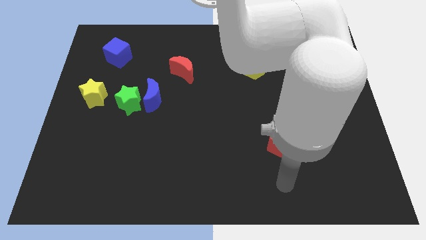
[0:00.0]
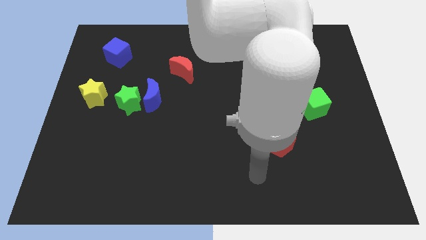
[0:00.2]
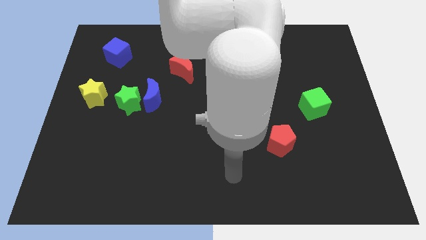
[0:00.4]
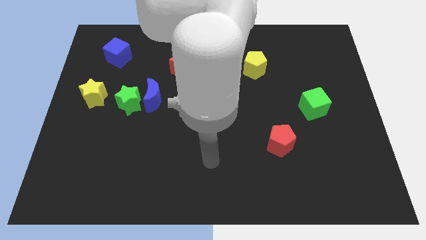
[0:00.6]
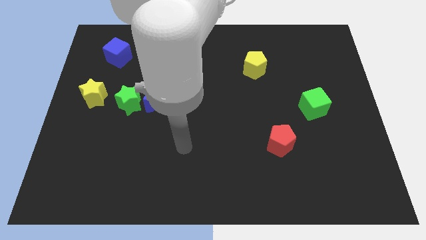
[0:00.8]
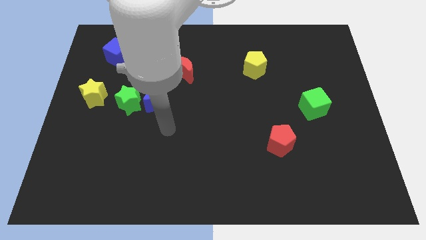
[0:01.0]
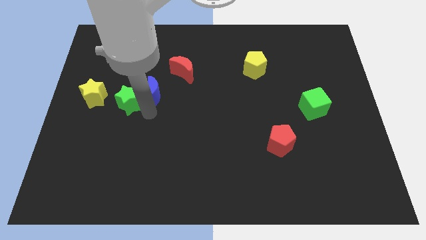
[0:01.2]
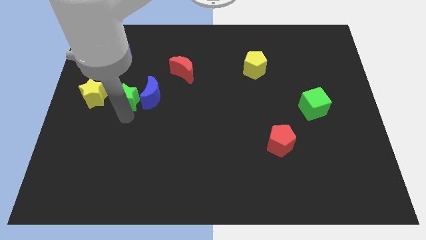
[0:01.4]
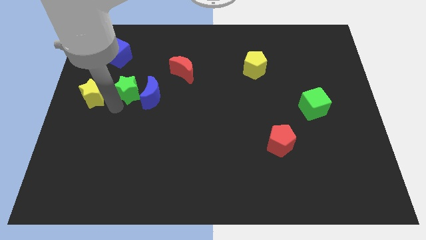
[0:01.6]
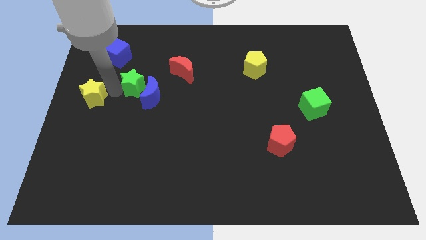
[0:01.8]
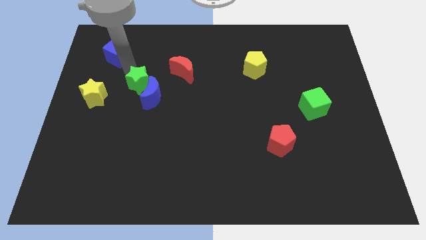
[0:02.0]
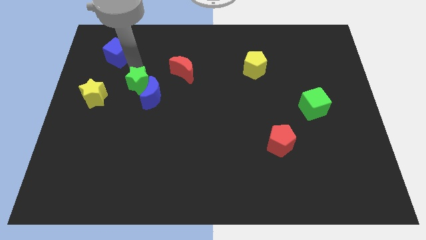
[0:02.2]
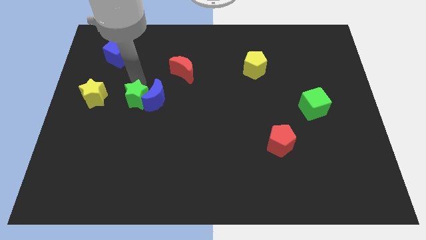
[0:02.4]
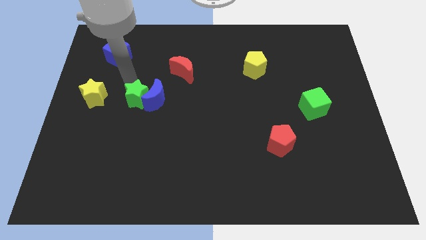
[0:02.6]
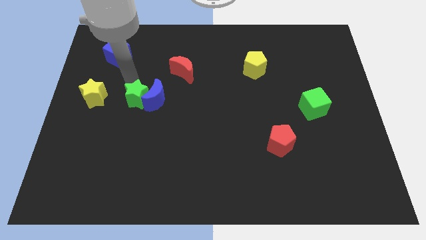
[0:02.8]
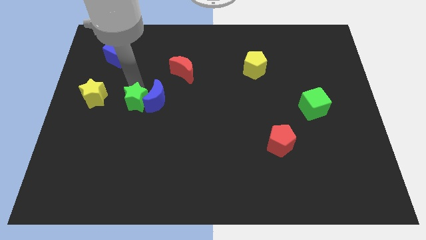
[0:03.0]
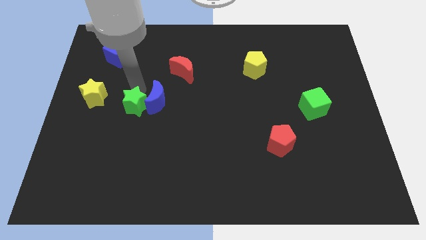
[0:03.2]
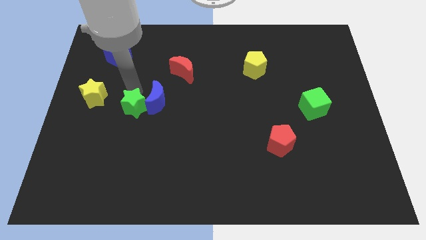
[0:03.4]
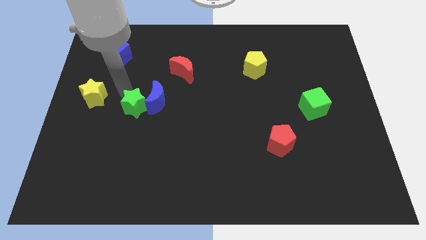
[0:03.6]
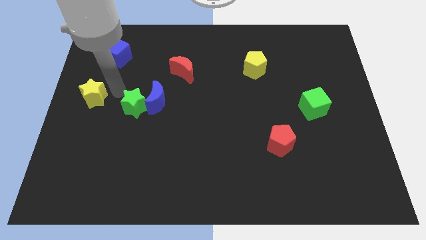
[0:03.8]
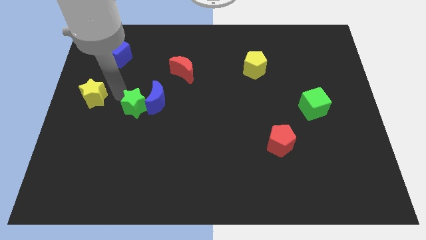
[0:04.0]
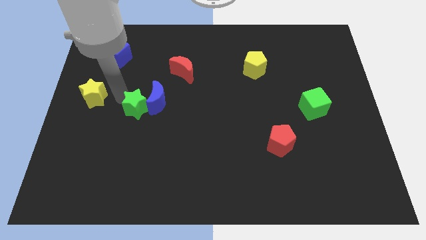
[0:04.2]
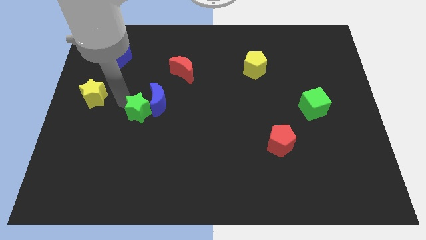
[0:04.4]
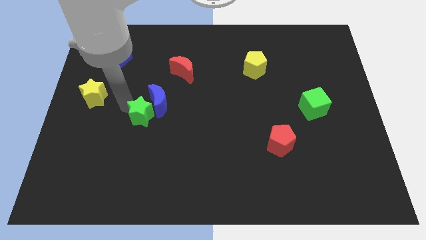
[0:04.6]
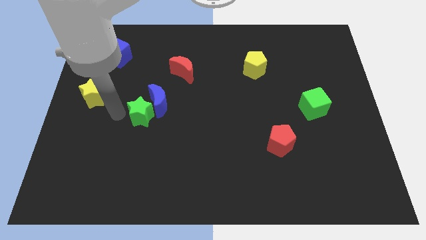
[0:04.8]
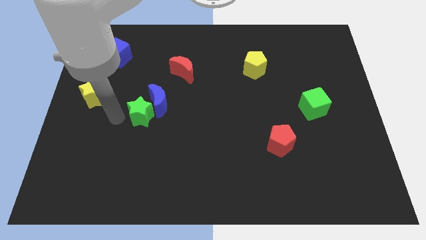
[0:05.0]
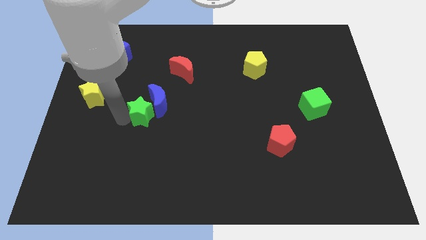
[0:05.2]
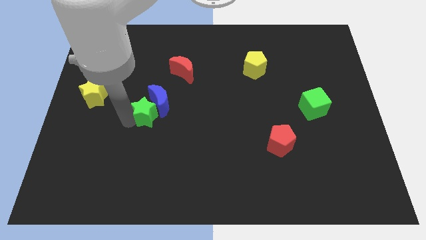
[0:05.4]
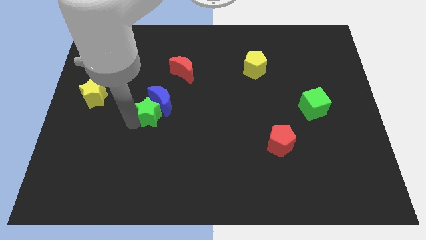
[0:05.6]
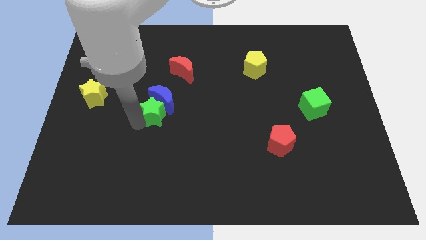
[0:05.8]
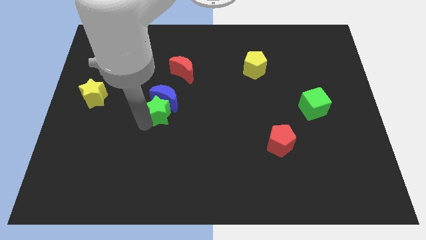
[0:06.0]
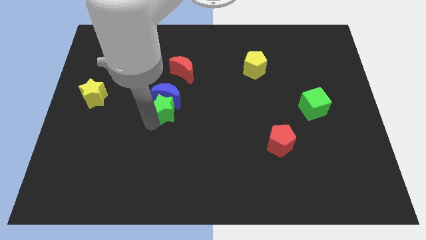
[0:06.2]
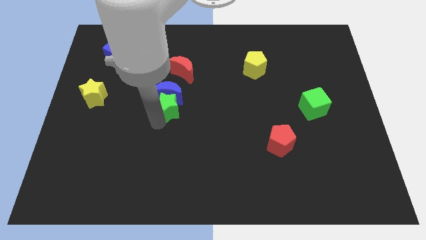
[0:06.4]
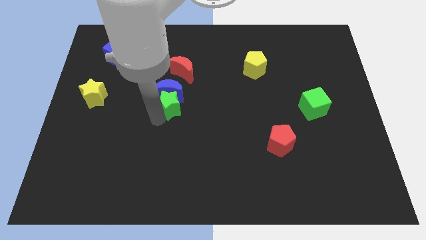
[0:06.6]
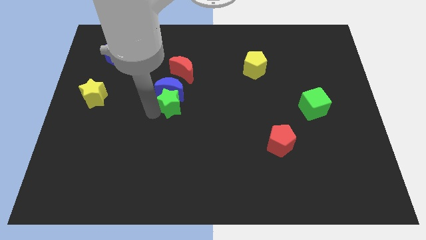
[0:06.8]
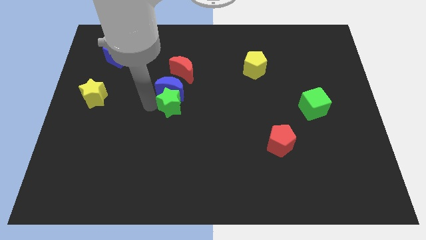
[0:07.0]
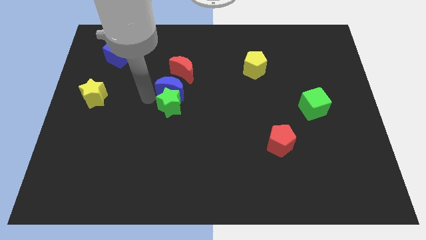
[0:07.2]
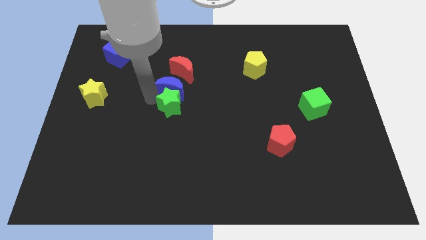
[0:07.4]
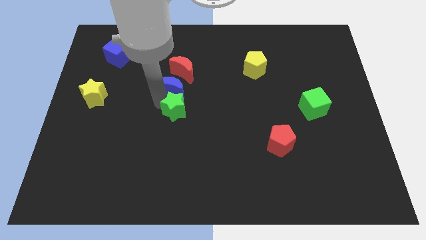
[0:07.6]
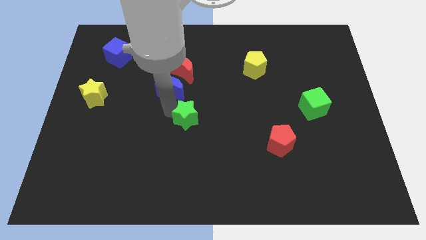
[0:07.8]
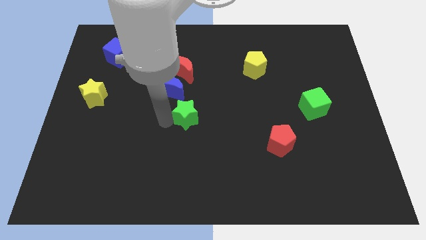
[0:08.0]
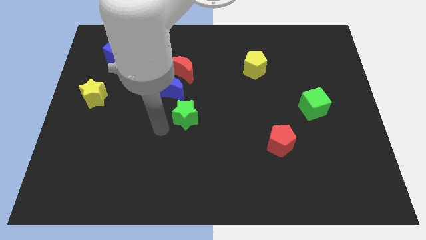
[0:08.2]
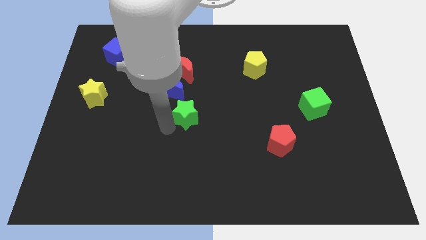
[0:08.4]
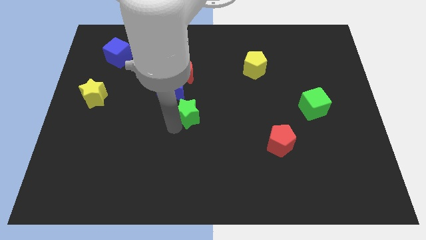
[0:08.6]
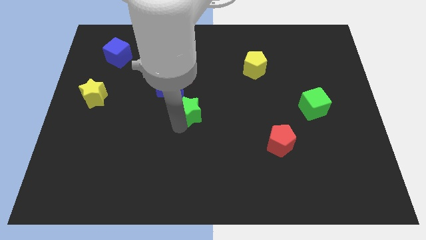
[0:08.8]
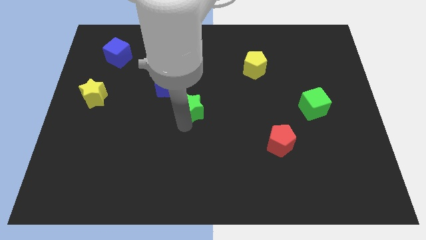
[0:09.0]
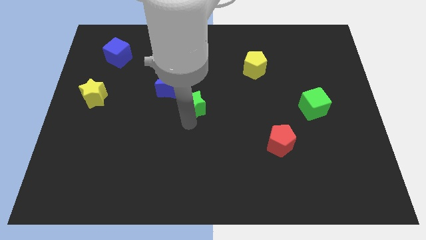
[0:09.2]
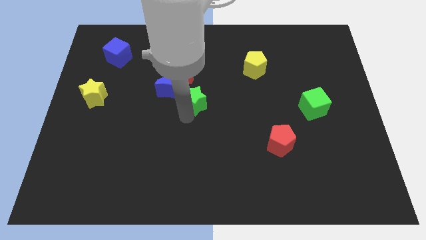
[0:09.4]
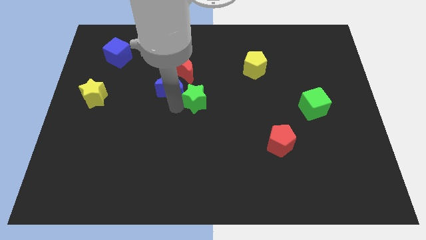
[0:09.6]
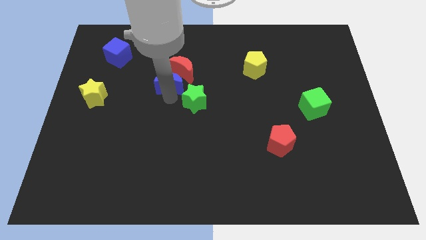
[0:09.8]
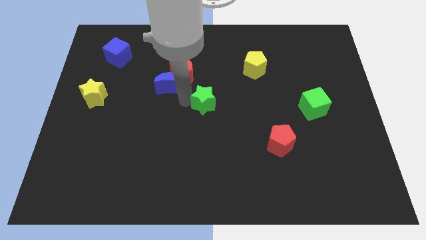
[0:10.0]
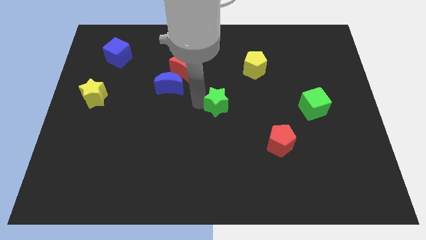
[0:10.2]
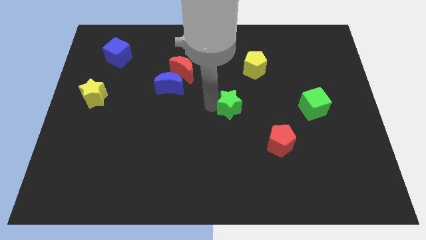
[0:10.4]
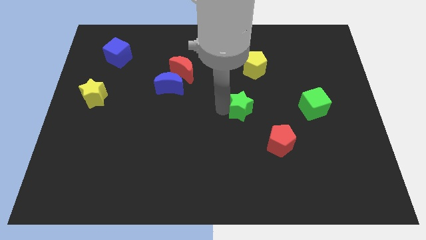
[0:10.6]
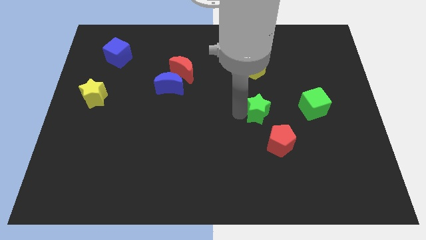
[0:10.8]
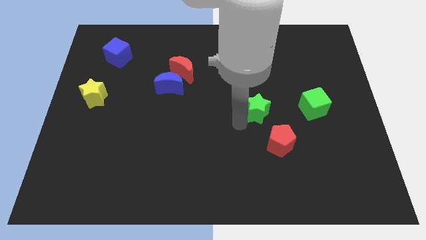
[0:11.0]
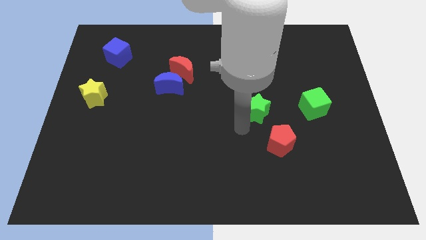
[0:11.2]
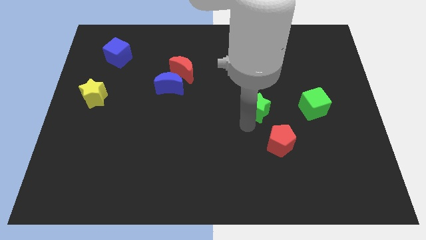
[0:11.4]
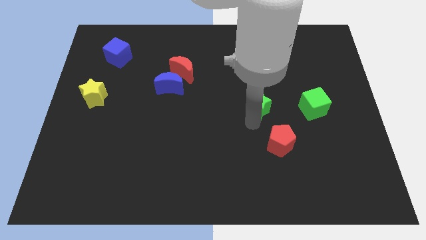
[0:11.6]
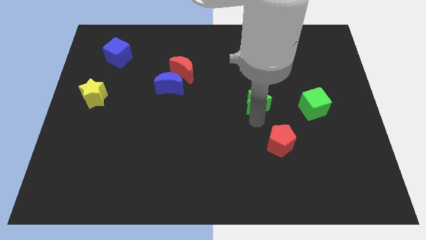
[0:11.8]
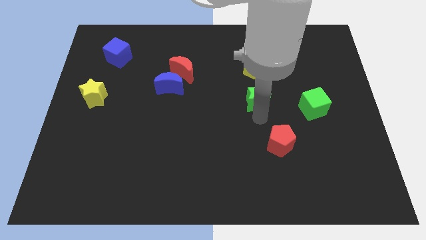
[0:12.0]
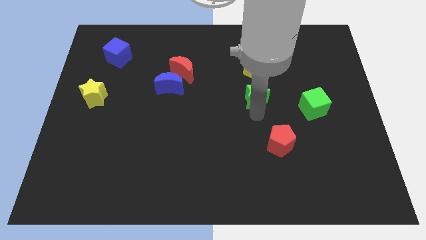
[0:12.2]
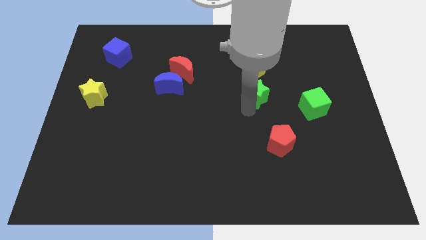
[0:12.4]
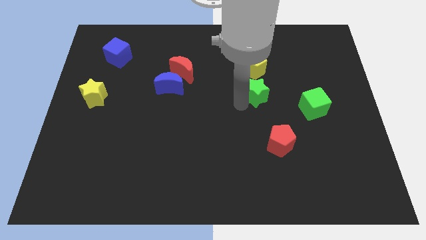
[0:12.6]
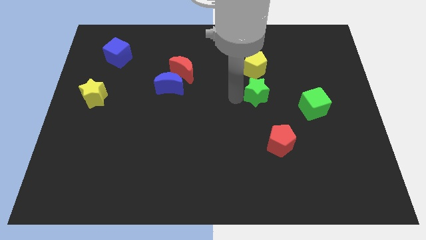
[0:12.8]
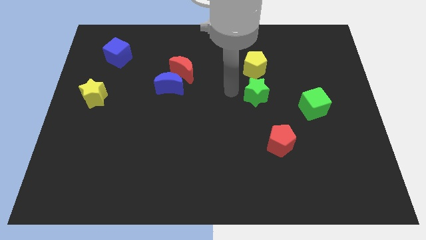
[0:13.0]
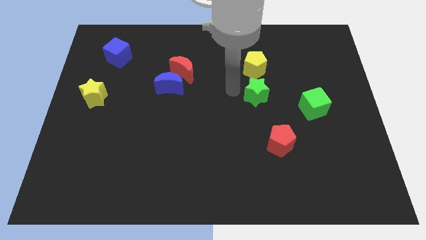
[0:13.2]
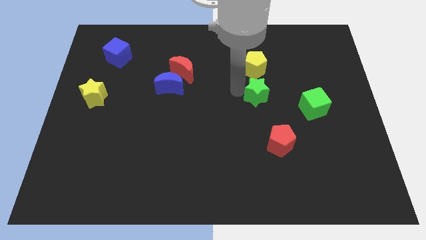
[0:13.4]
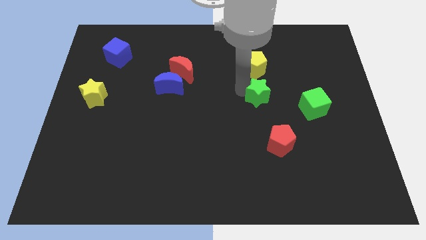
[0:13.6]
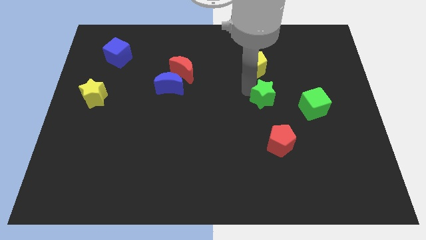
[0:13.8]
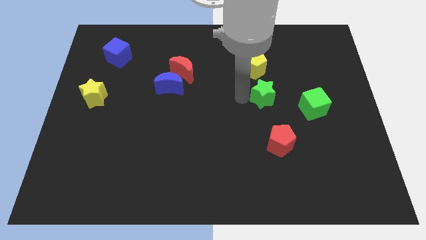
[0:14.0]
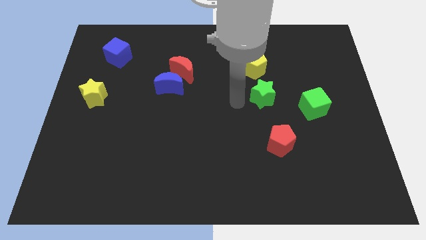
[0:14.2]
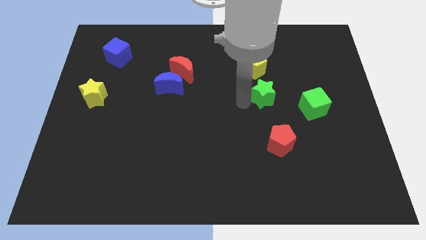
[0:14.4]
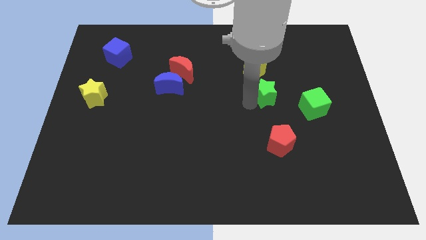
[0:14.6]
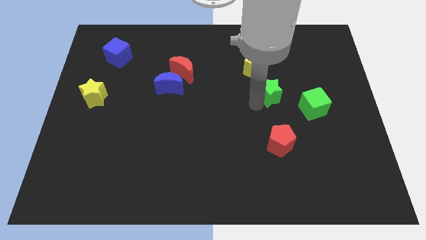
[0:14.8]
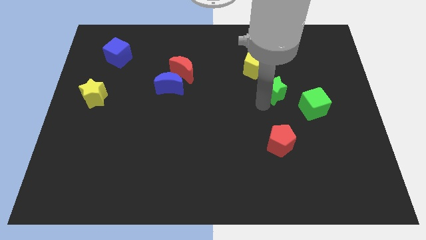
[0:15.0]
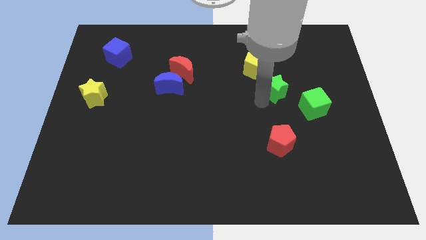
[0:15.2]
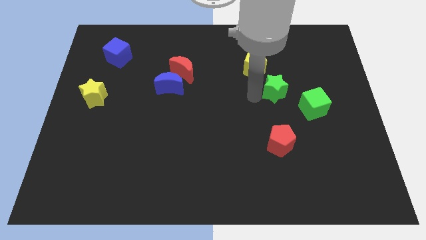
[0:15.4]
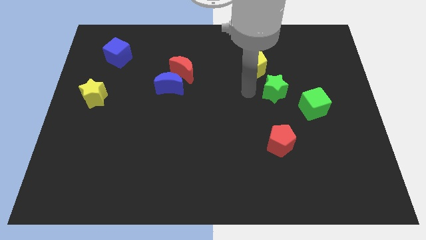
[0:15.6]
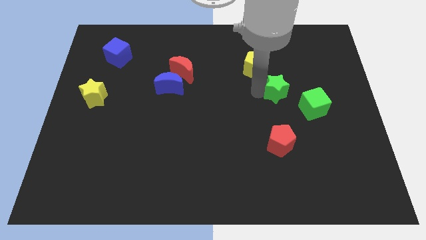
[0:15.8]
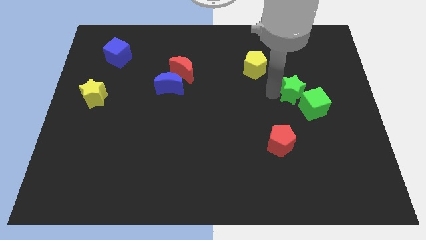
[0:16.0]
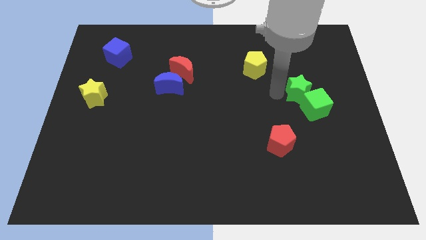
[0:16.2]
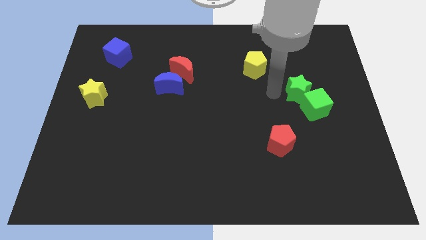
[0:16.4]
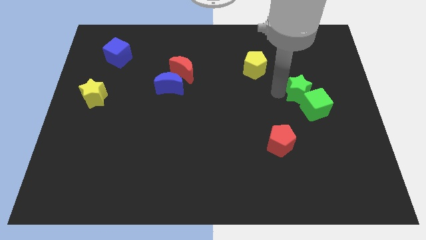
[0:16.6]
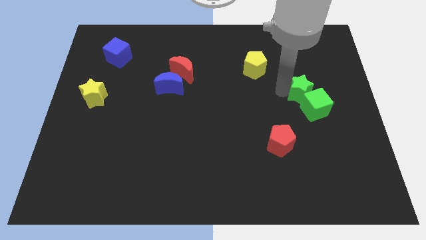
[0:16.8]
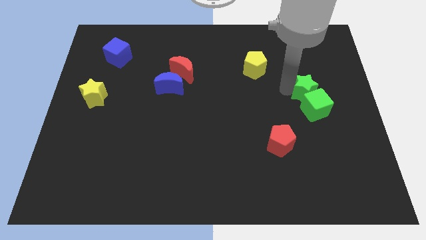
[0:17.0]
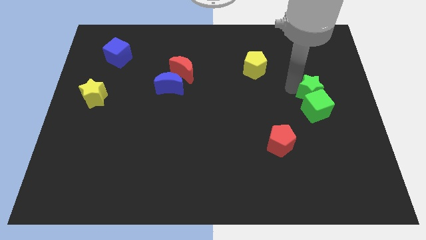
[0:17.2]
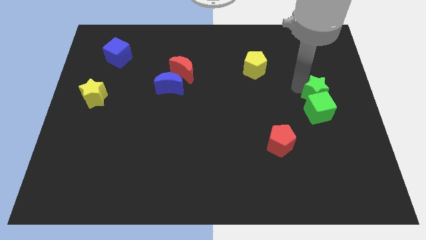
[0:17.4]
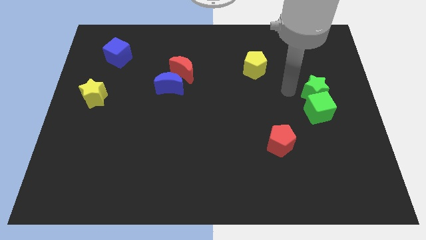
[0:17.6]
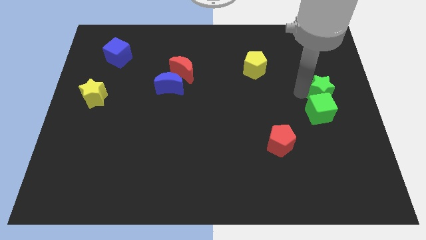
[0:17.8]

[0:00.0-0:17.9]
put the green star to the right side of the board
